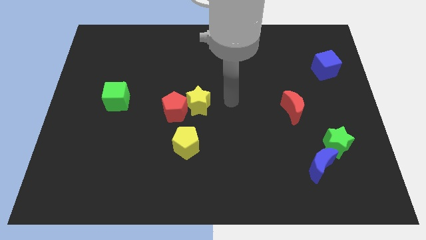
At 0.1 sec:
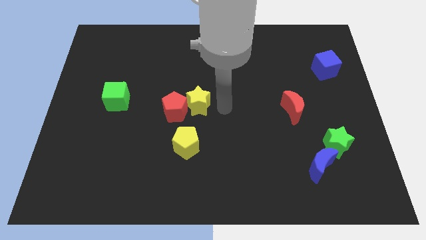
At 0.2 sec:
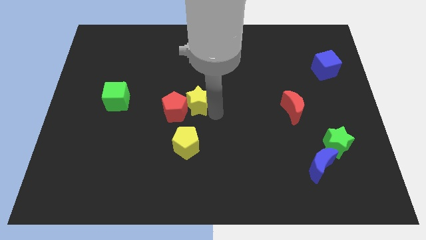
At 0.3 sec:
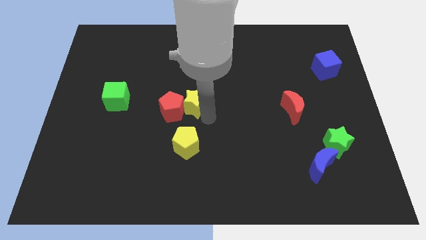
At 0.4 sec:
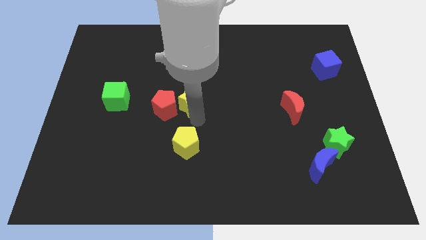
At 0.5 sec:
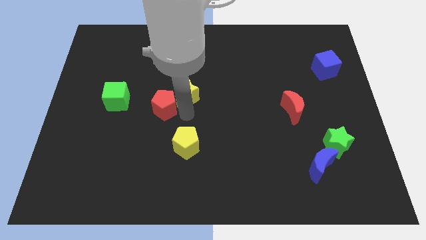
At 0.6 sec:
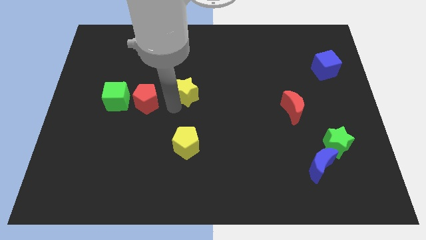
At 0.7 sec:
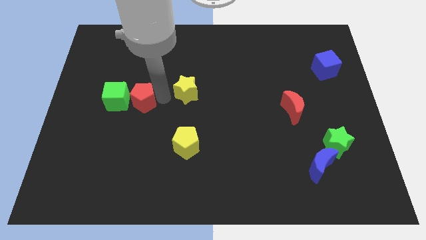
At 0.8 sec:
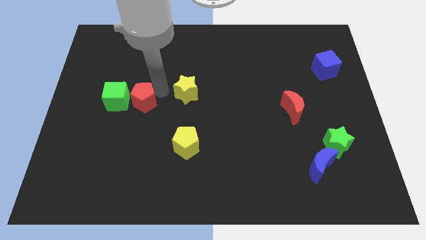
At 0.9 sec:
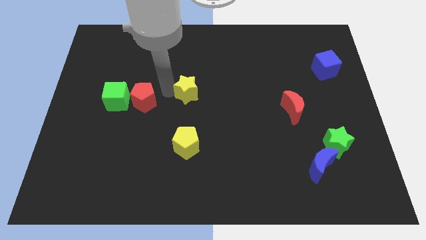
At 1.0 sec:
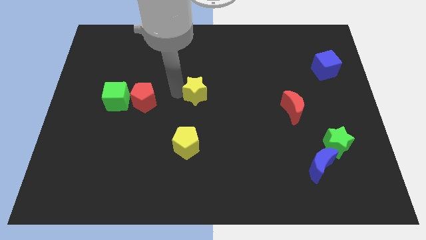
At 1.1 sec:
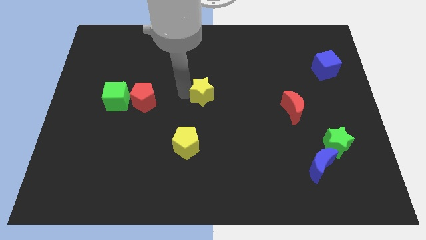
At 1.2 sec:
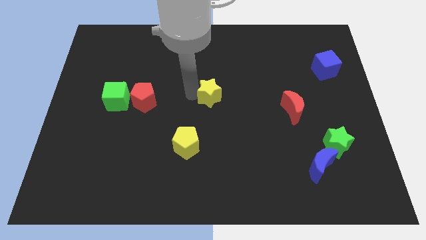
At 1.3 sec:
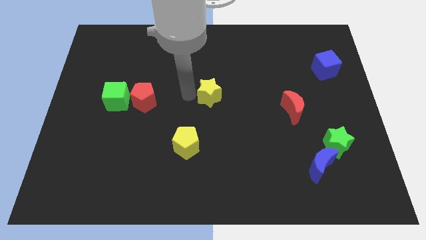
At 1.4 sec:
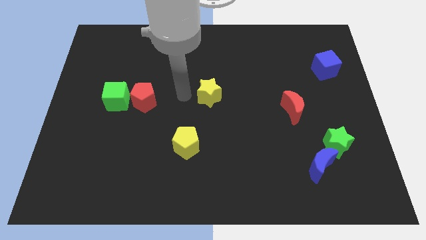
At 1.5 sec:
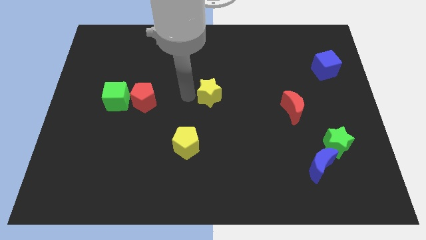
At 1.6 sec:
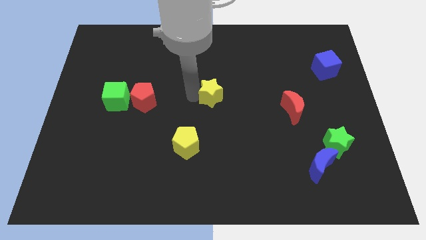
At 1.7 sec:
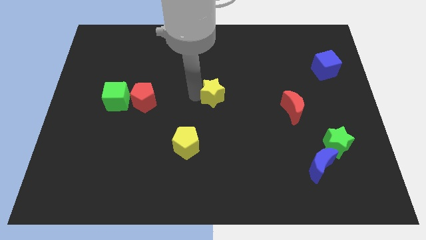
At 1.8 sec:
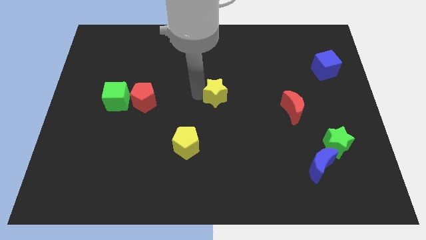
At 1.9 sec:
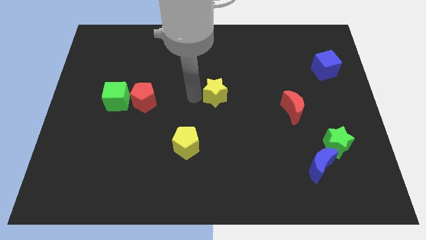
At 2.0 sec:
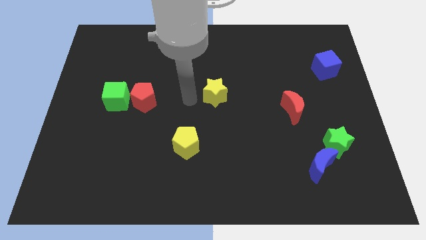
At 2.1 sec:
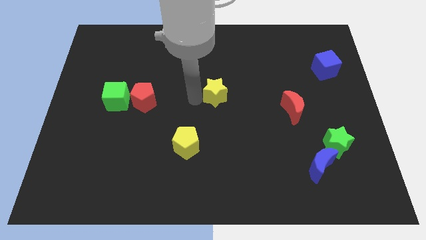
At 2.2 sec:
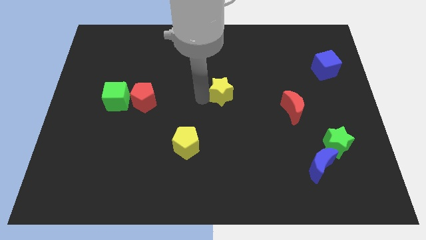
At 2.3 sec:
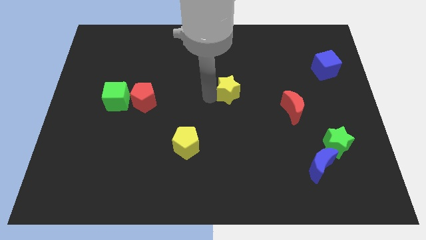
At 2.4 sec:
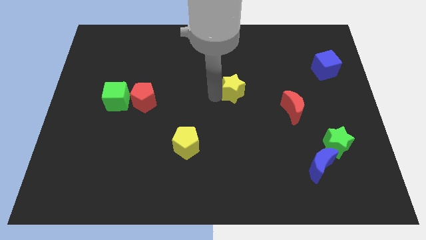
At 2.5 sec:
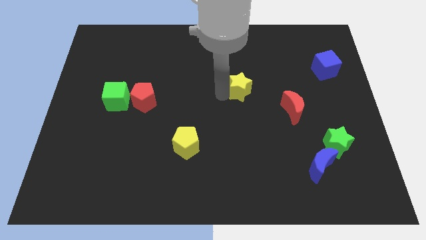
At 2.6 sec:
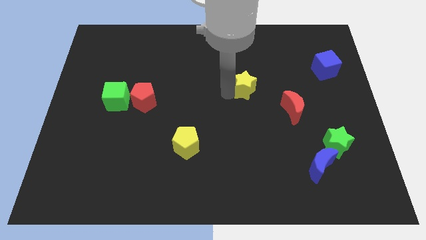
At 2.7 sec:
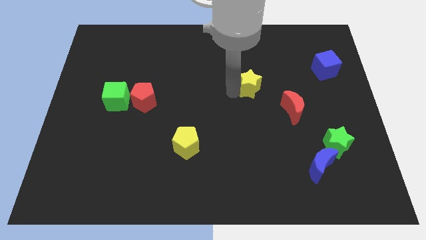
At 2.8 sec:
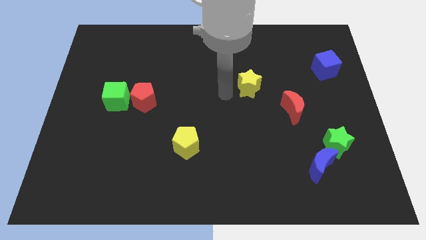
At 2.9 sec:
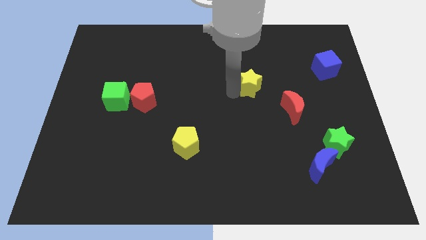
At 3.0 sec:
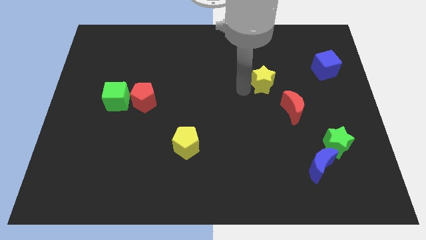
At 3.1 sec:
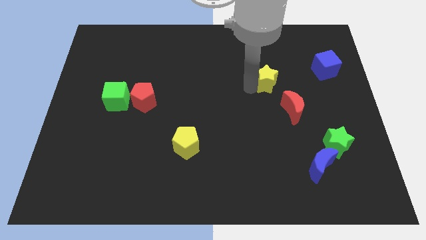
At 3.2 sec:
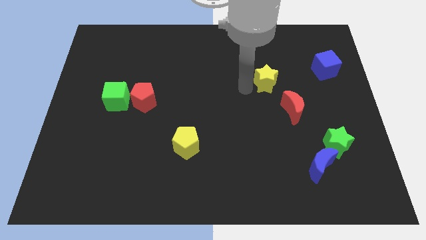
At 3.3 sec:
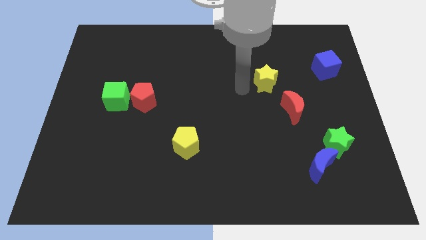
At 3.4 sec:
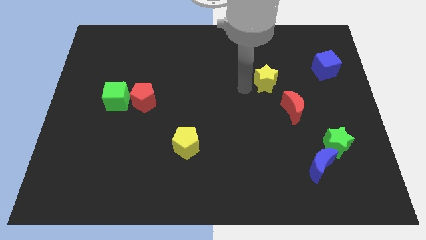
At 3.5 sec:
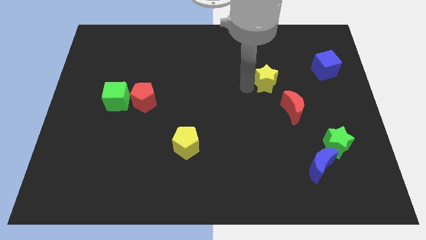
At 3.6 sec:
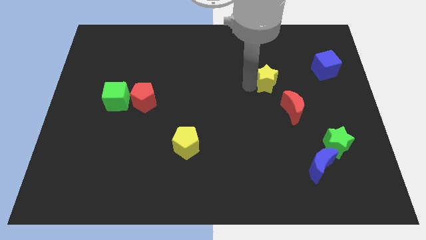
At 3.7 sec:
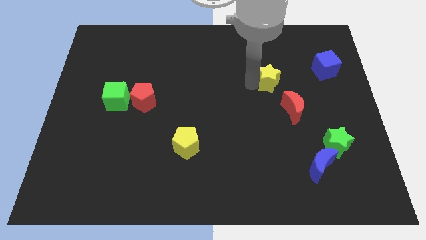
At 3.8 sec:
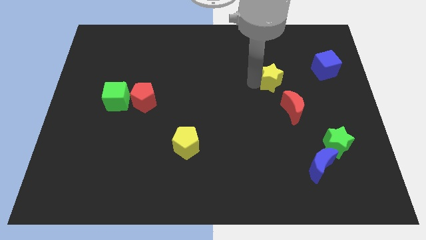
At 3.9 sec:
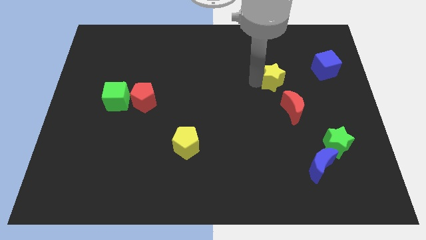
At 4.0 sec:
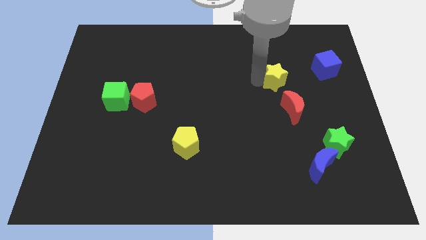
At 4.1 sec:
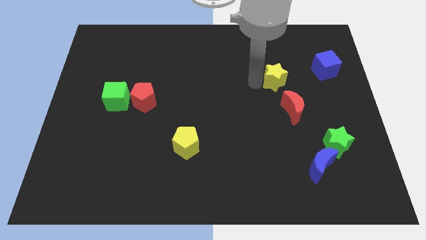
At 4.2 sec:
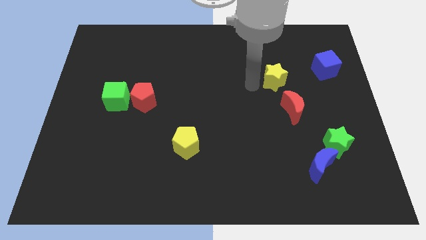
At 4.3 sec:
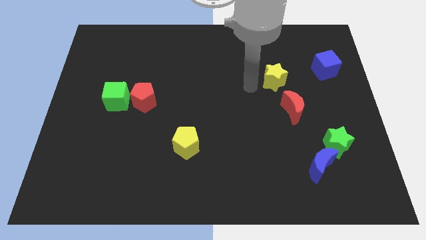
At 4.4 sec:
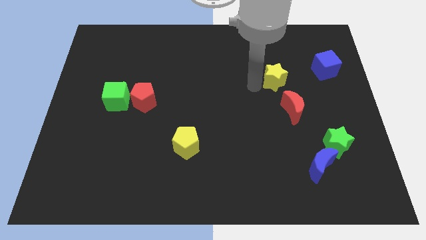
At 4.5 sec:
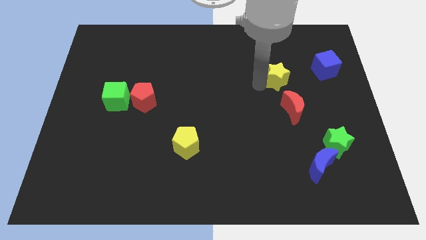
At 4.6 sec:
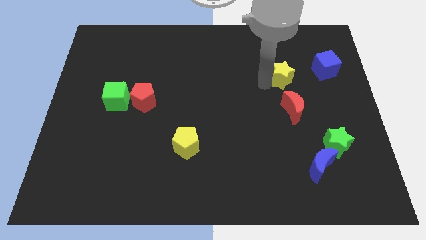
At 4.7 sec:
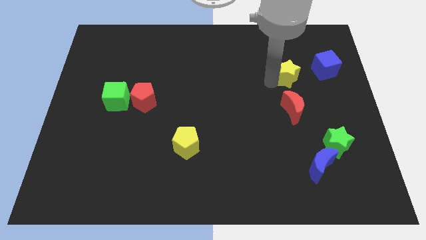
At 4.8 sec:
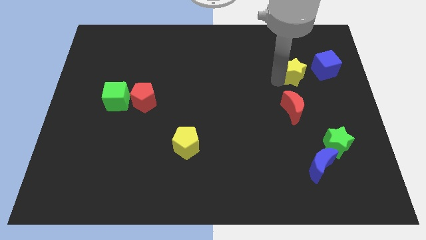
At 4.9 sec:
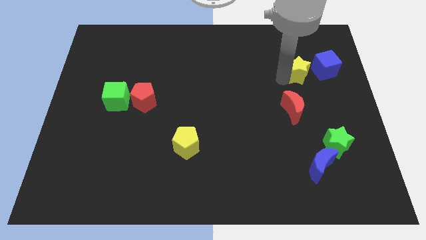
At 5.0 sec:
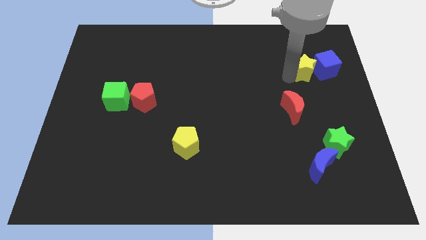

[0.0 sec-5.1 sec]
put the yellow star towards the blue cube

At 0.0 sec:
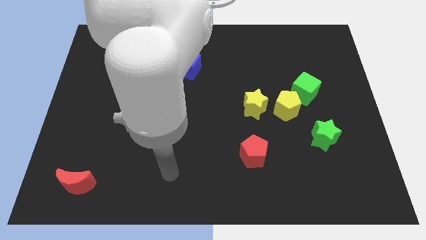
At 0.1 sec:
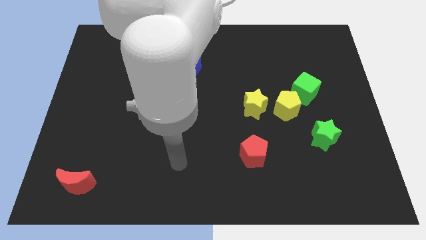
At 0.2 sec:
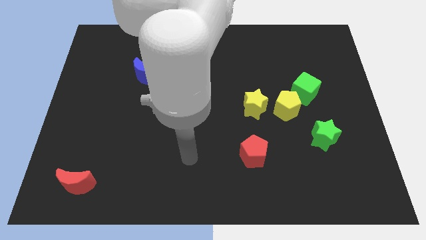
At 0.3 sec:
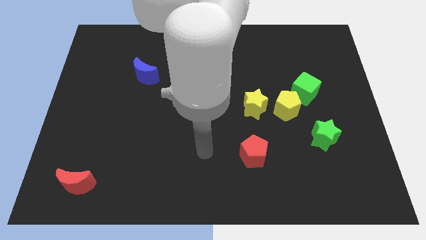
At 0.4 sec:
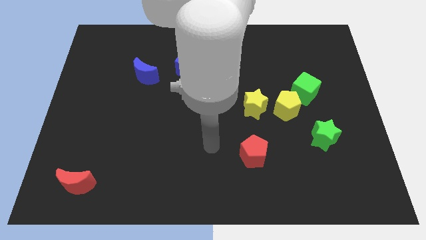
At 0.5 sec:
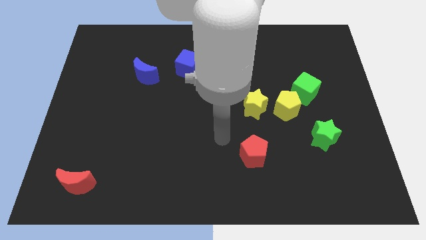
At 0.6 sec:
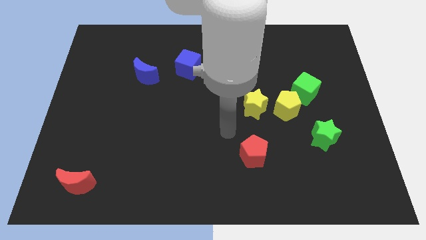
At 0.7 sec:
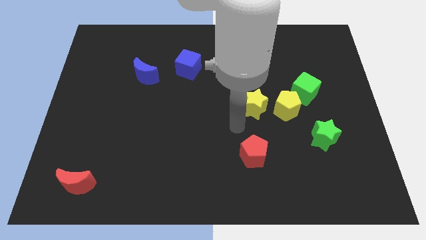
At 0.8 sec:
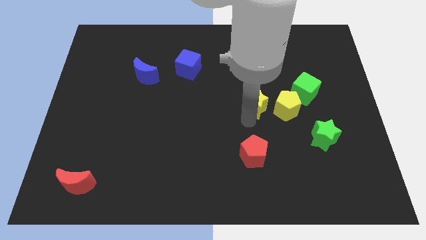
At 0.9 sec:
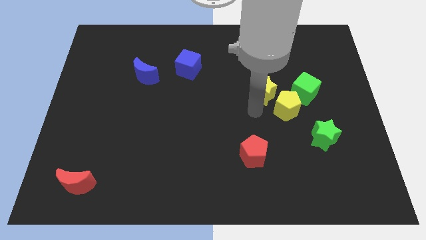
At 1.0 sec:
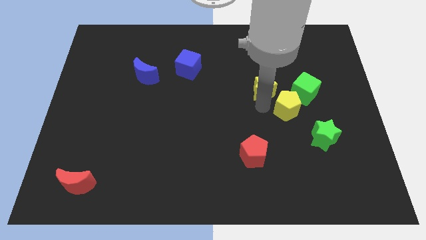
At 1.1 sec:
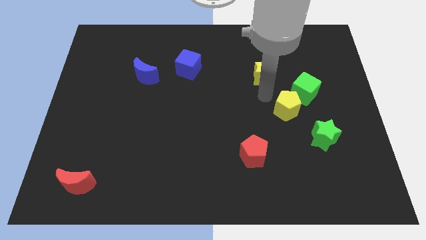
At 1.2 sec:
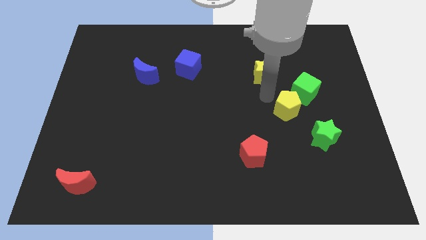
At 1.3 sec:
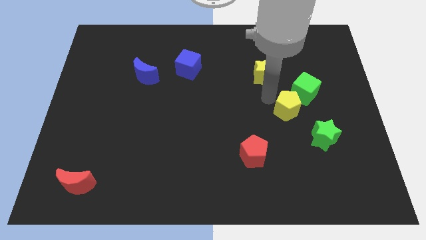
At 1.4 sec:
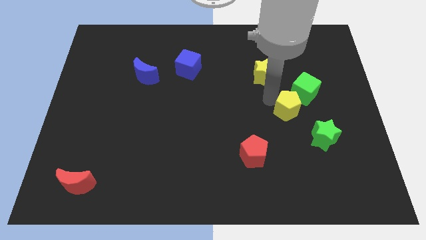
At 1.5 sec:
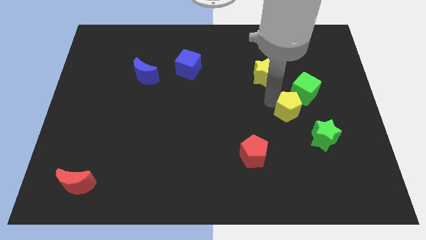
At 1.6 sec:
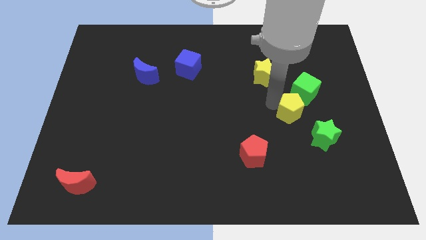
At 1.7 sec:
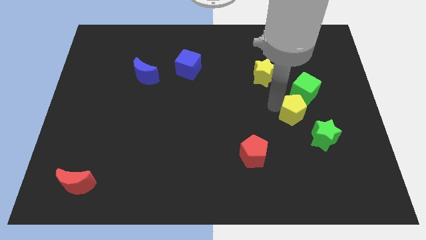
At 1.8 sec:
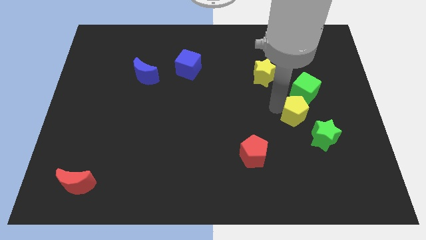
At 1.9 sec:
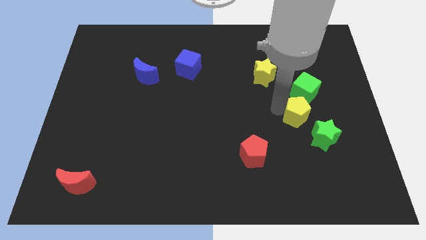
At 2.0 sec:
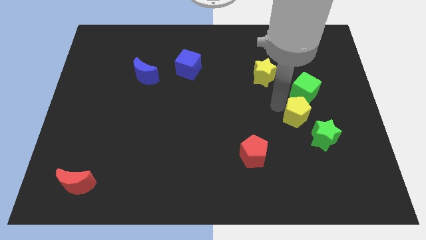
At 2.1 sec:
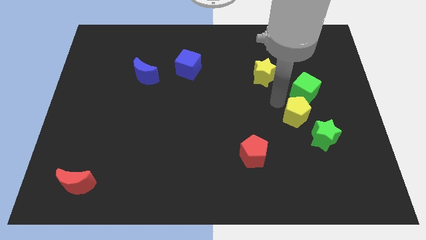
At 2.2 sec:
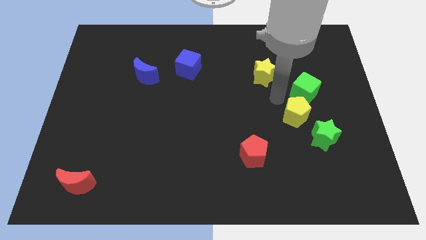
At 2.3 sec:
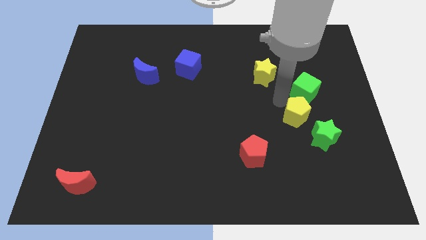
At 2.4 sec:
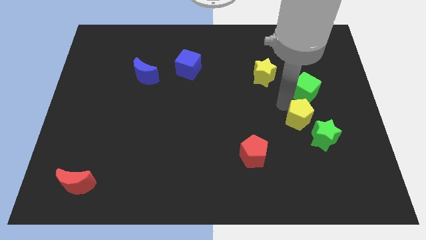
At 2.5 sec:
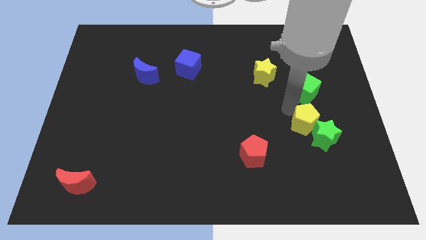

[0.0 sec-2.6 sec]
slide the yellow pentagon close to the green star
